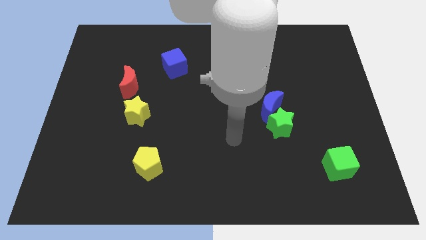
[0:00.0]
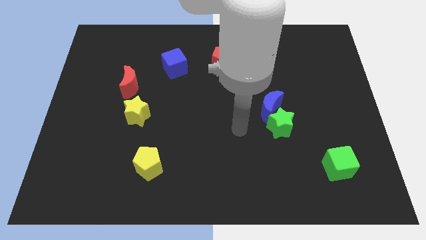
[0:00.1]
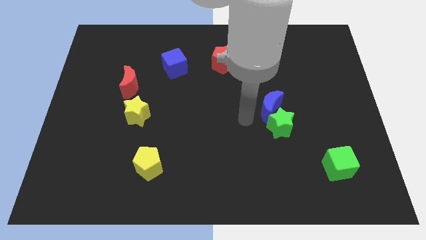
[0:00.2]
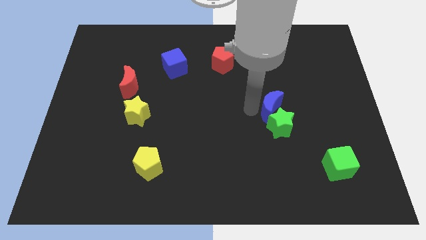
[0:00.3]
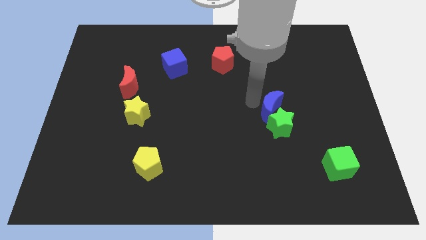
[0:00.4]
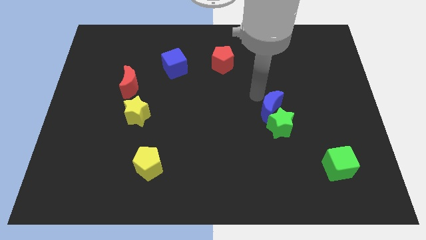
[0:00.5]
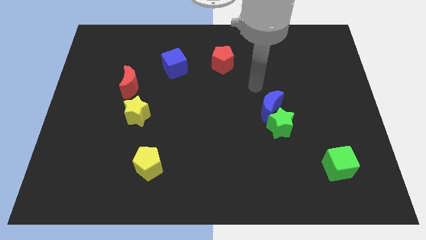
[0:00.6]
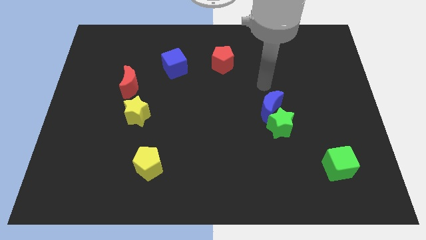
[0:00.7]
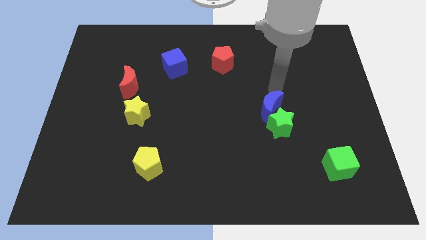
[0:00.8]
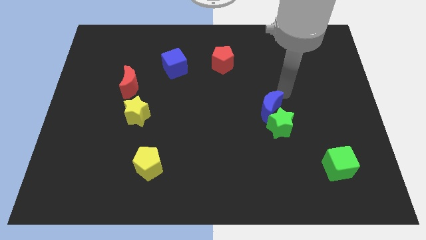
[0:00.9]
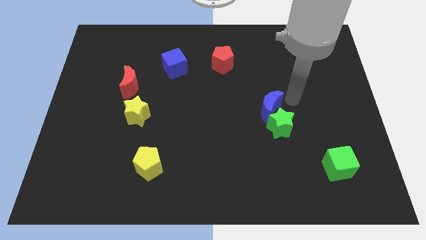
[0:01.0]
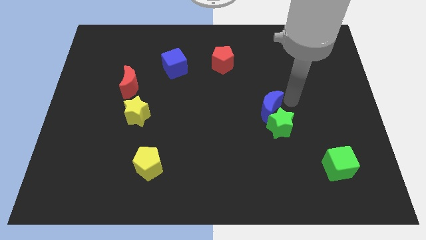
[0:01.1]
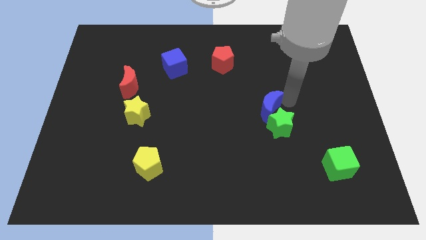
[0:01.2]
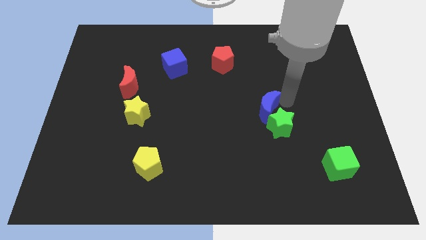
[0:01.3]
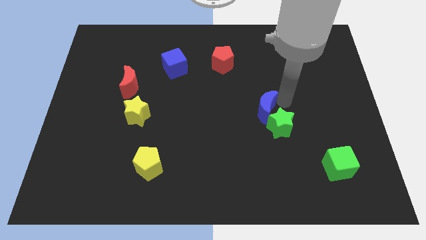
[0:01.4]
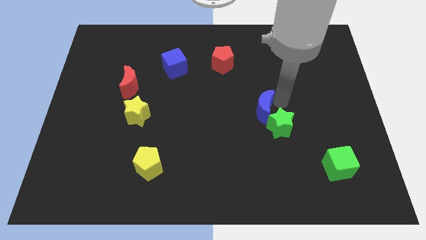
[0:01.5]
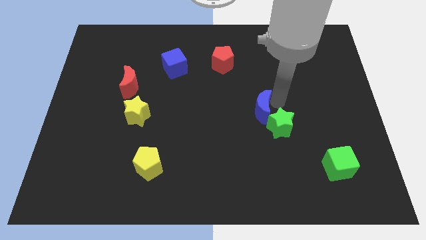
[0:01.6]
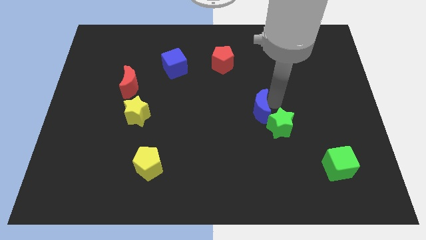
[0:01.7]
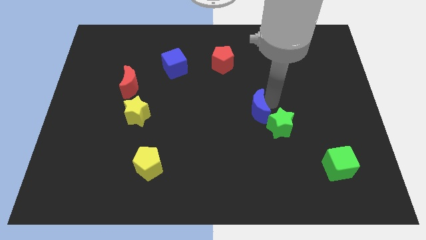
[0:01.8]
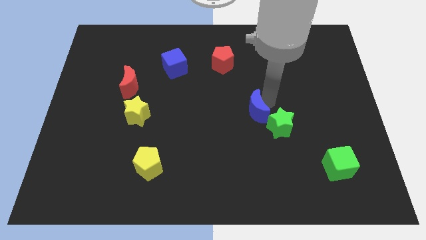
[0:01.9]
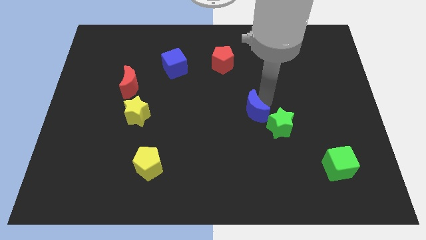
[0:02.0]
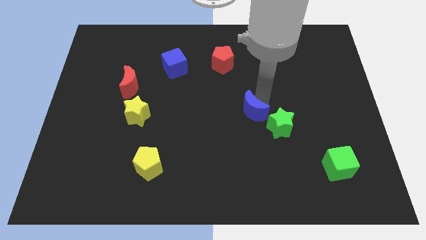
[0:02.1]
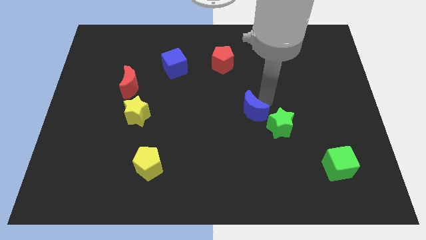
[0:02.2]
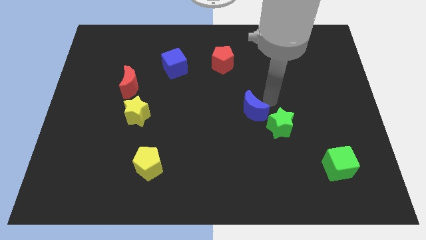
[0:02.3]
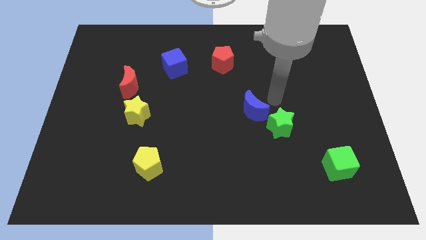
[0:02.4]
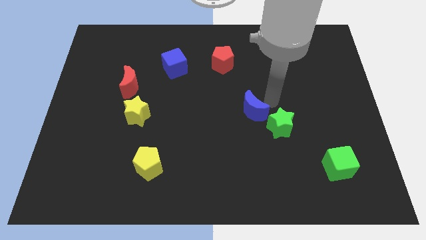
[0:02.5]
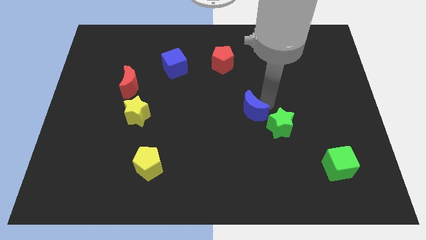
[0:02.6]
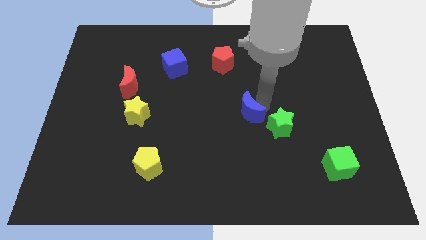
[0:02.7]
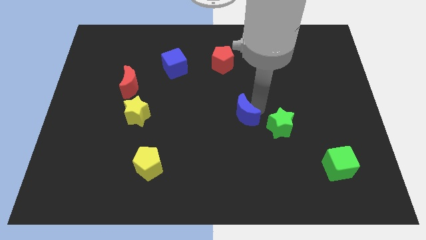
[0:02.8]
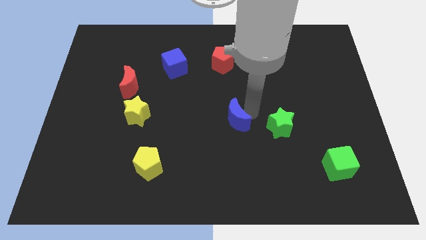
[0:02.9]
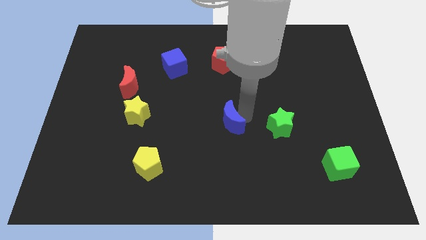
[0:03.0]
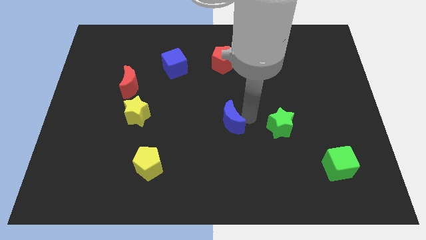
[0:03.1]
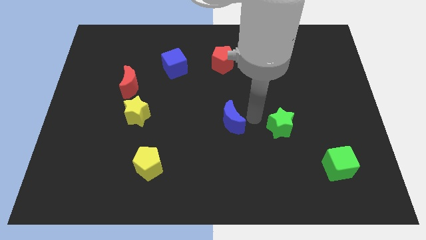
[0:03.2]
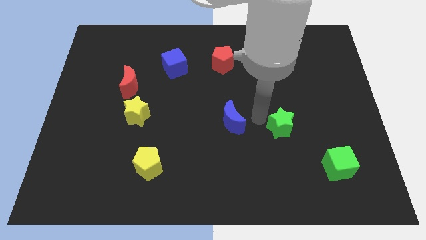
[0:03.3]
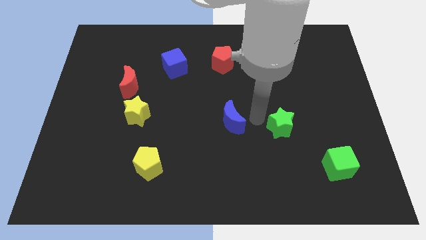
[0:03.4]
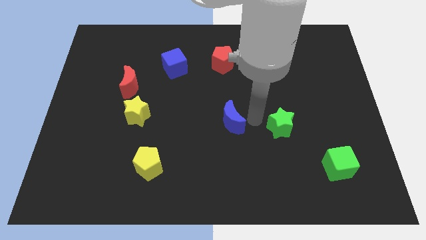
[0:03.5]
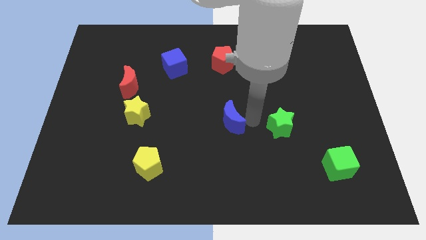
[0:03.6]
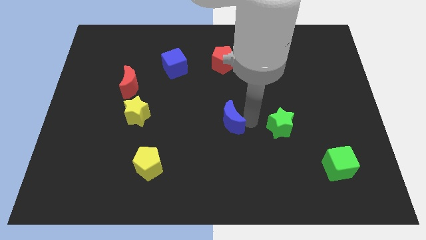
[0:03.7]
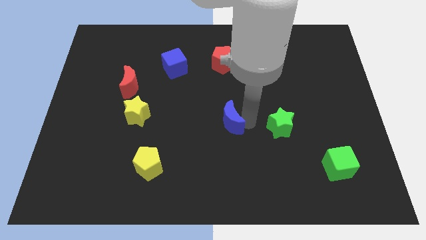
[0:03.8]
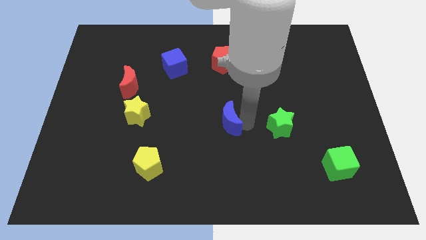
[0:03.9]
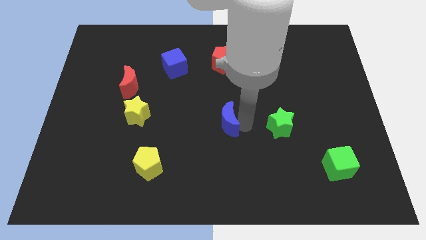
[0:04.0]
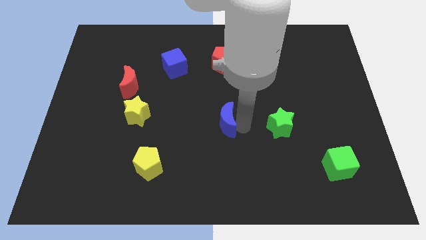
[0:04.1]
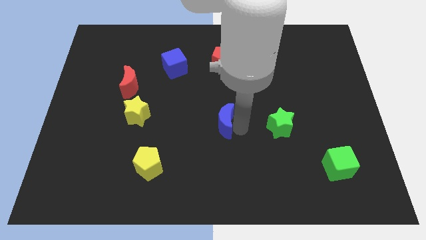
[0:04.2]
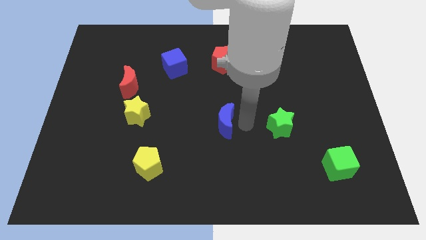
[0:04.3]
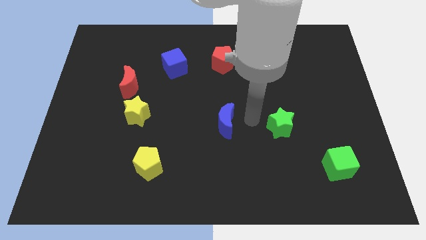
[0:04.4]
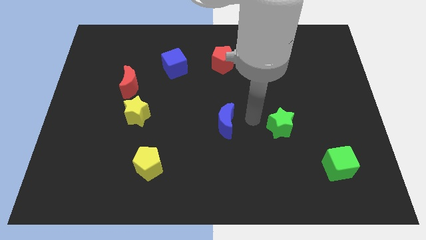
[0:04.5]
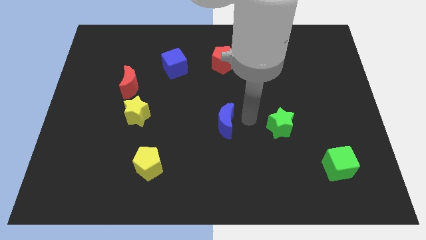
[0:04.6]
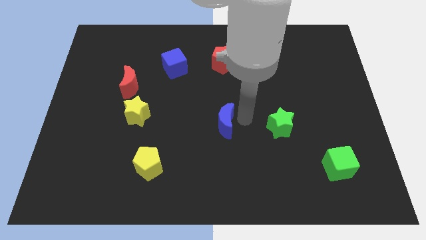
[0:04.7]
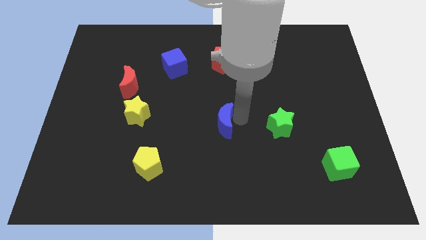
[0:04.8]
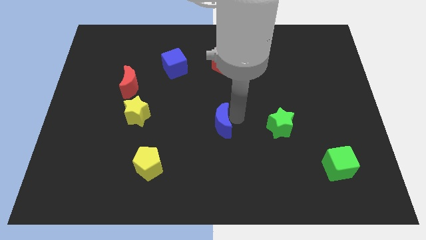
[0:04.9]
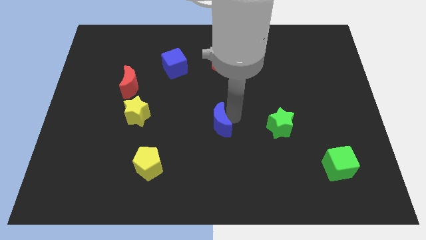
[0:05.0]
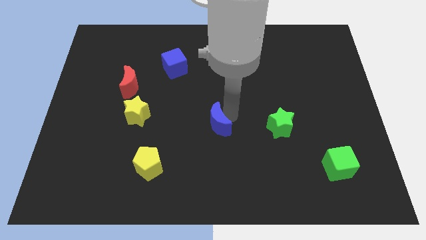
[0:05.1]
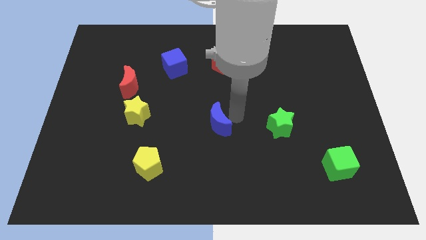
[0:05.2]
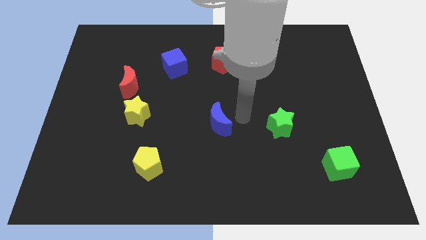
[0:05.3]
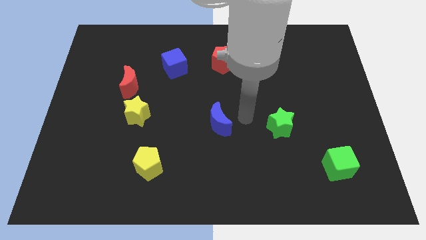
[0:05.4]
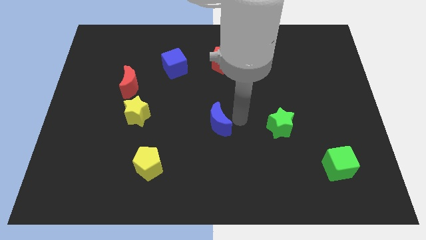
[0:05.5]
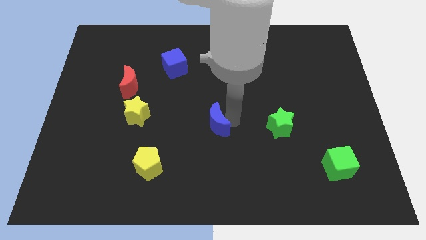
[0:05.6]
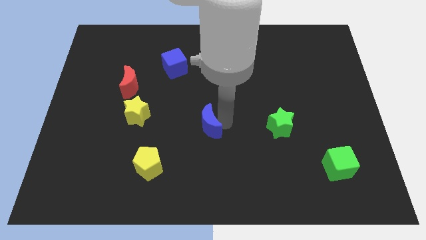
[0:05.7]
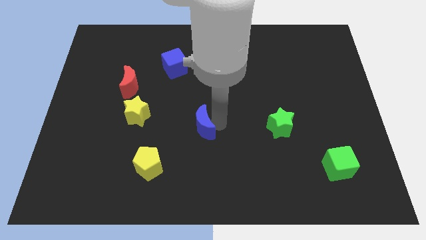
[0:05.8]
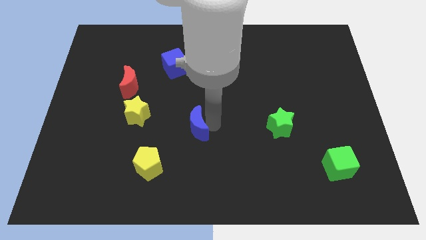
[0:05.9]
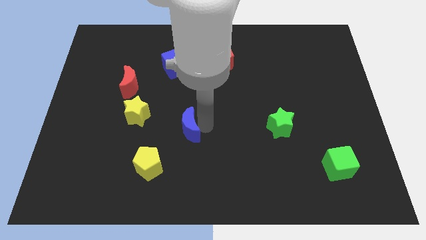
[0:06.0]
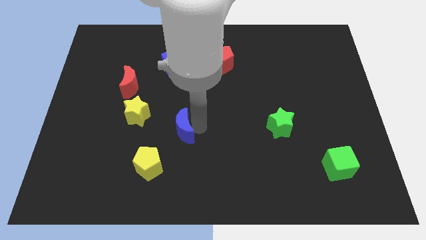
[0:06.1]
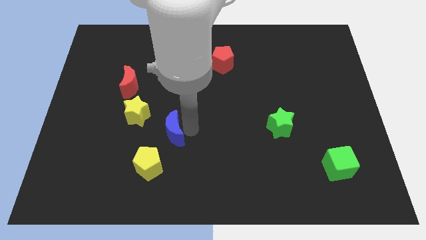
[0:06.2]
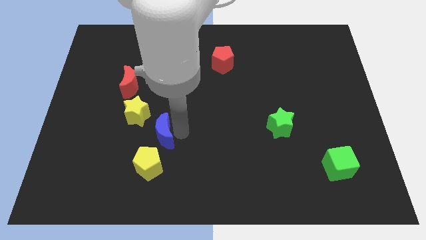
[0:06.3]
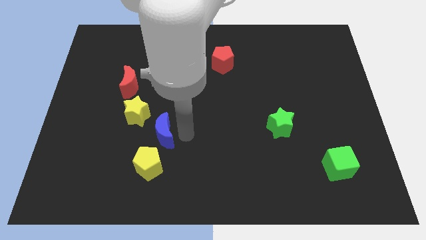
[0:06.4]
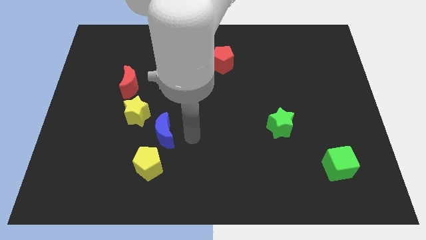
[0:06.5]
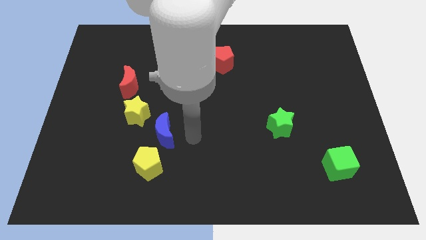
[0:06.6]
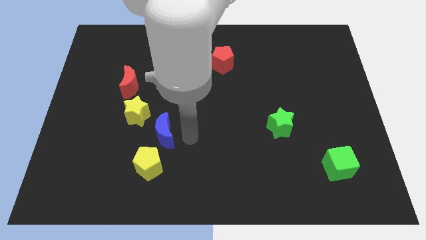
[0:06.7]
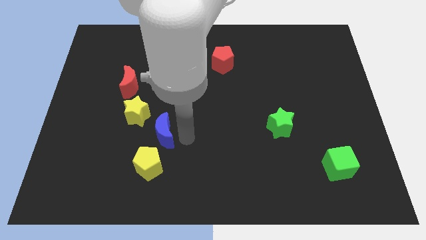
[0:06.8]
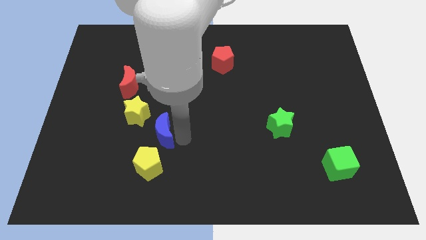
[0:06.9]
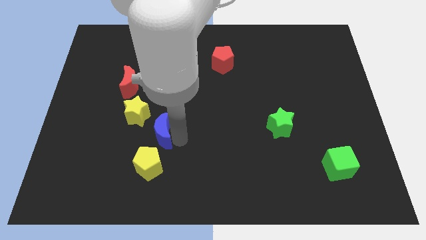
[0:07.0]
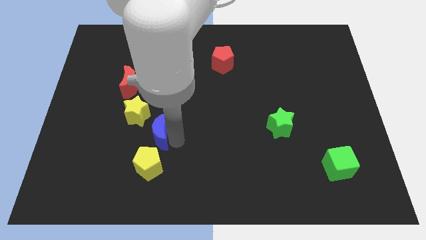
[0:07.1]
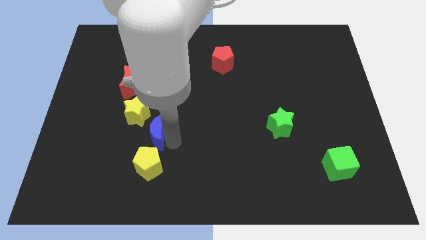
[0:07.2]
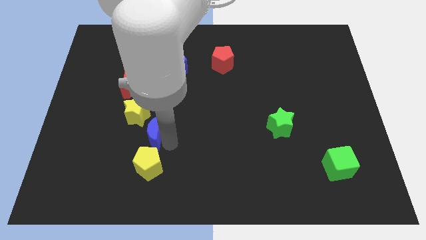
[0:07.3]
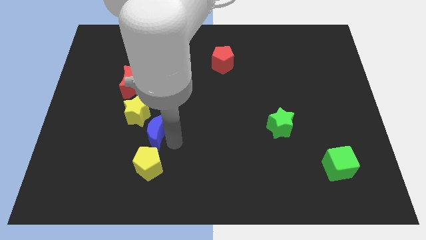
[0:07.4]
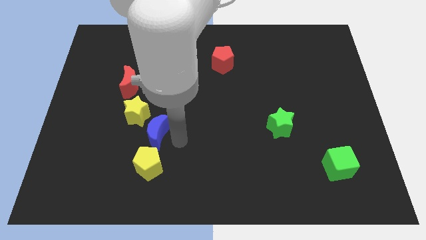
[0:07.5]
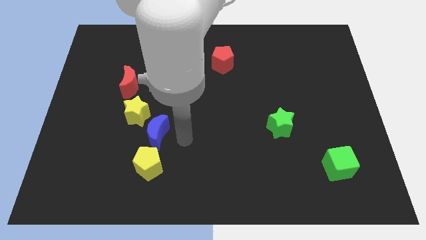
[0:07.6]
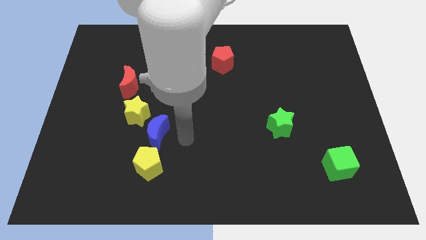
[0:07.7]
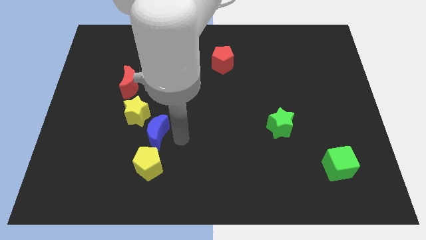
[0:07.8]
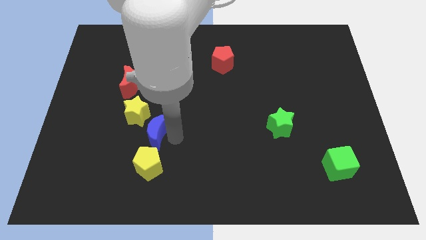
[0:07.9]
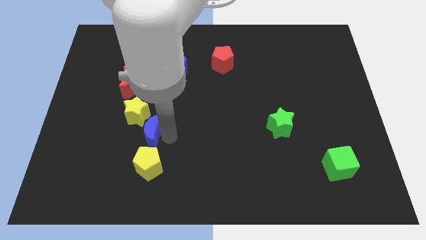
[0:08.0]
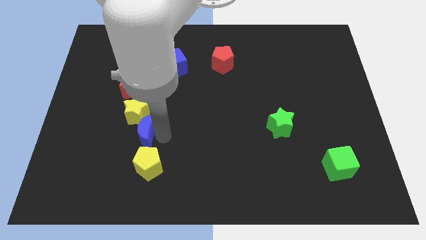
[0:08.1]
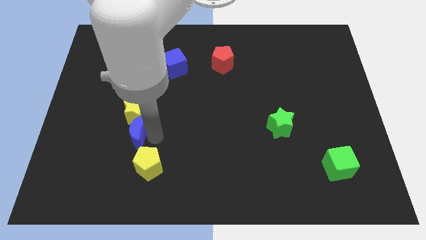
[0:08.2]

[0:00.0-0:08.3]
move the blue moon to the bottom of the red moon
